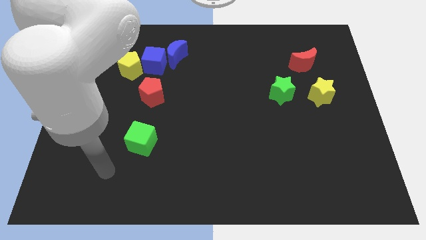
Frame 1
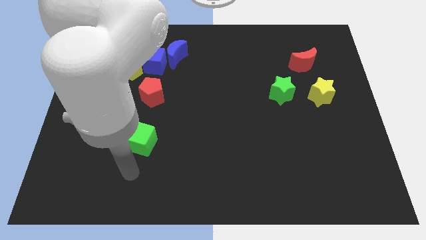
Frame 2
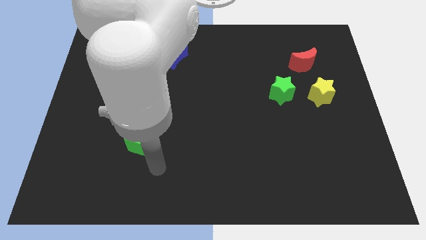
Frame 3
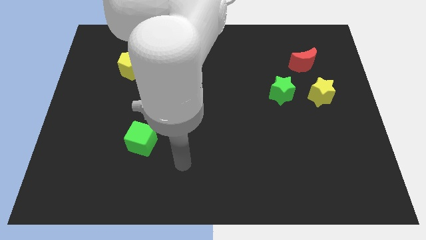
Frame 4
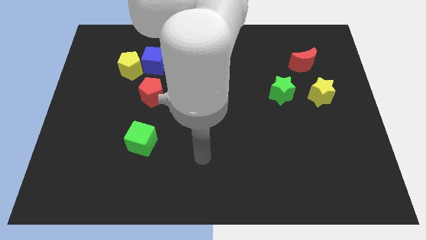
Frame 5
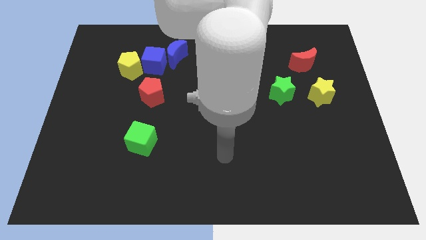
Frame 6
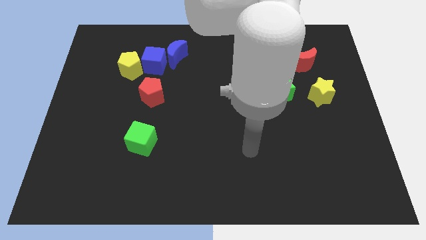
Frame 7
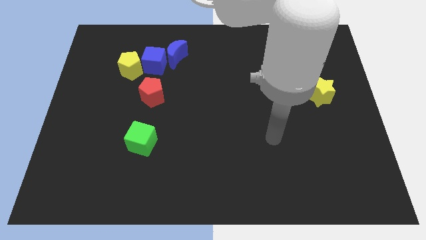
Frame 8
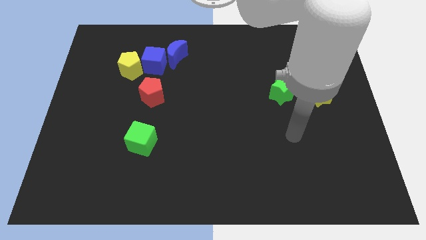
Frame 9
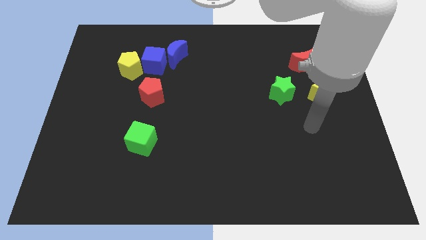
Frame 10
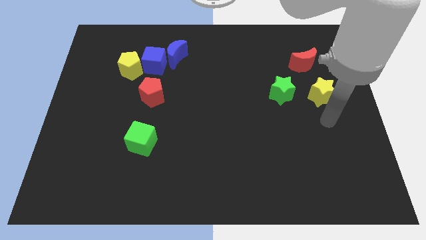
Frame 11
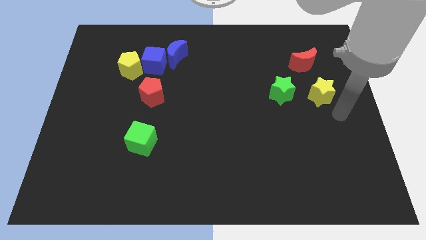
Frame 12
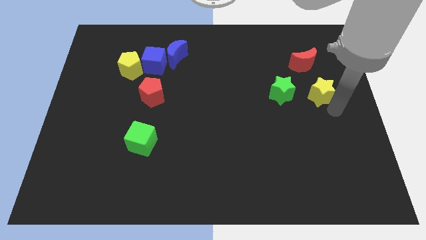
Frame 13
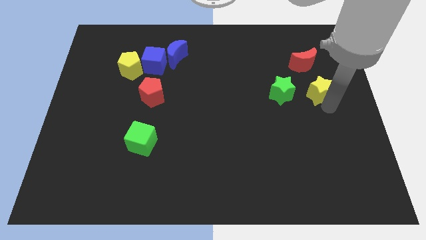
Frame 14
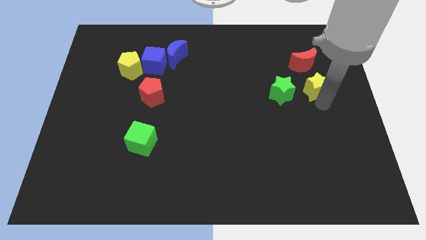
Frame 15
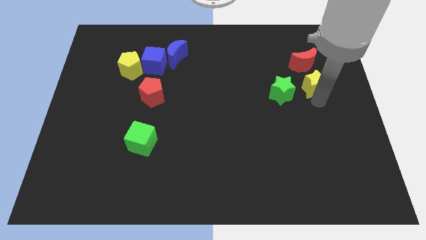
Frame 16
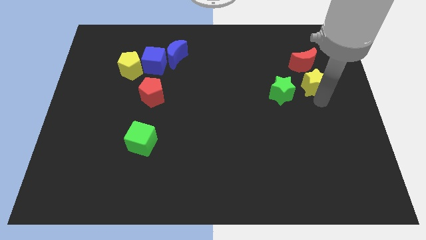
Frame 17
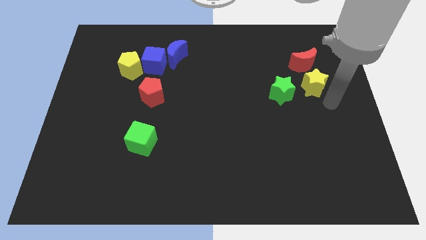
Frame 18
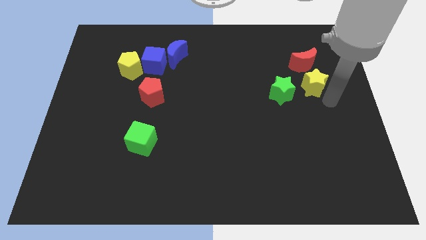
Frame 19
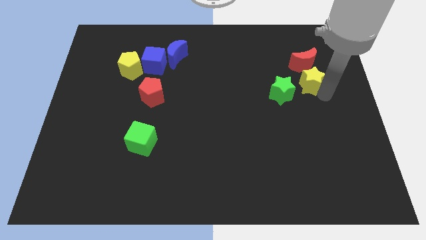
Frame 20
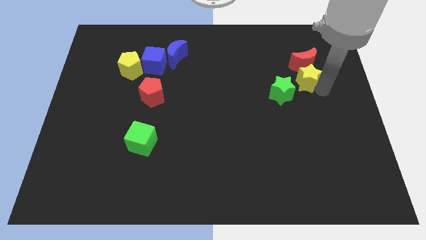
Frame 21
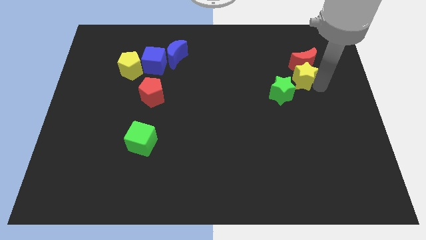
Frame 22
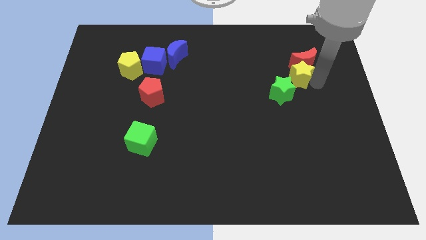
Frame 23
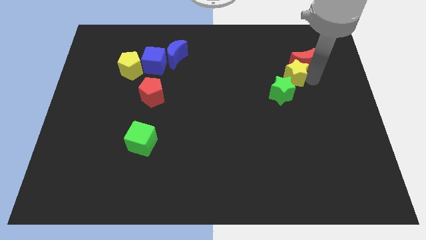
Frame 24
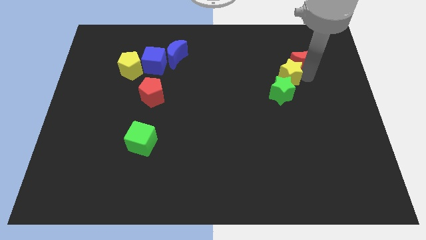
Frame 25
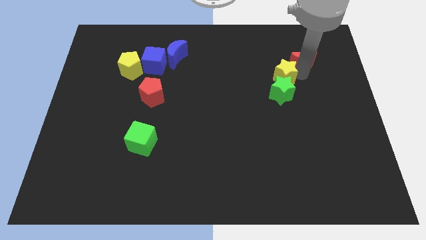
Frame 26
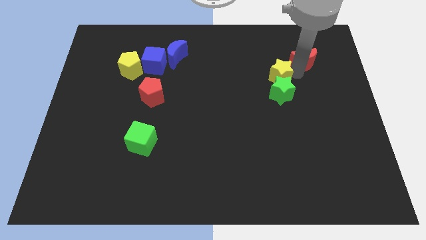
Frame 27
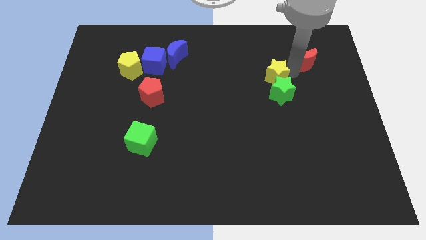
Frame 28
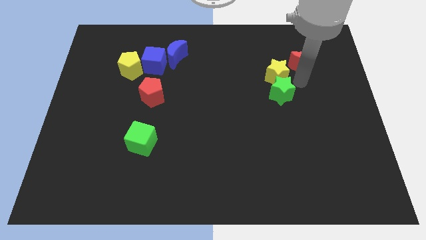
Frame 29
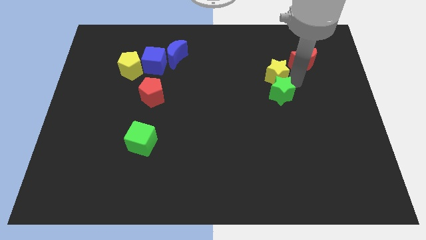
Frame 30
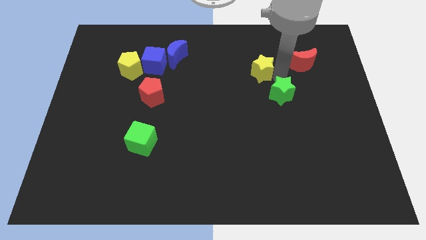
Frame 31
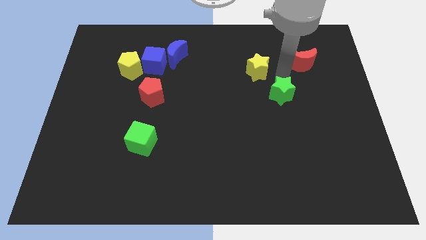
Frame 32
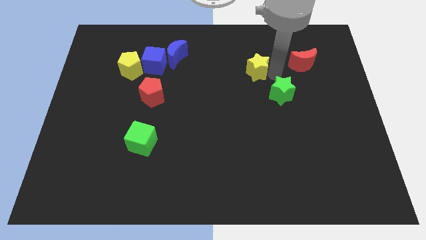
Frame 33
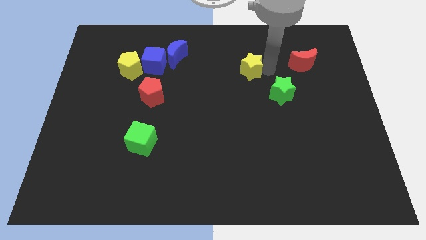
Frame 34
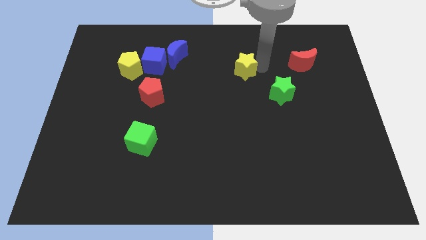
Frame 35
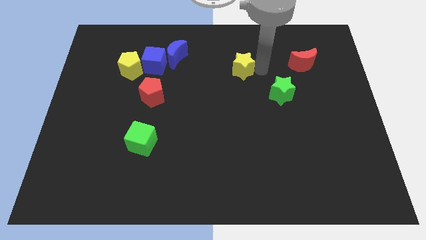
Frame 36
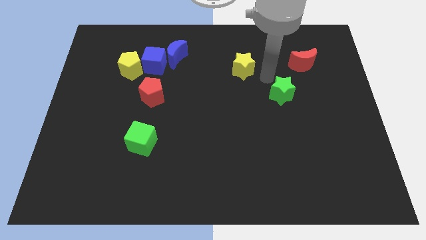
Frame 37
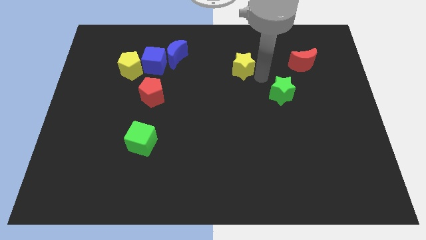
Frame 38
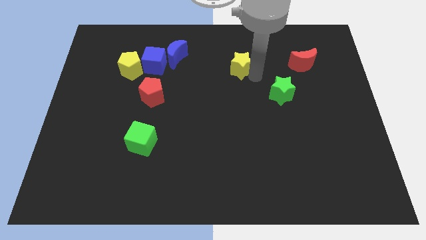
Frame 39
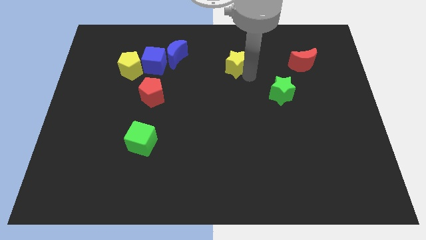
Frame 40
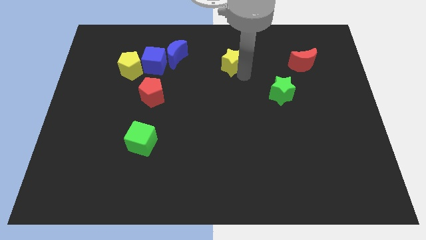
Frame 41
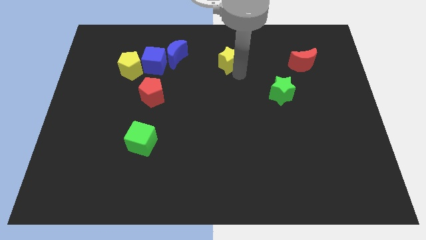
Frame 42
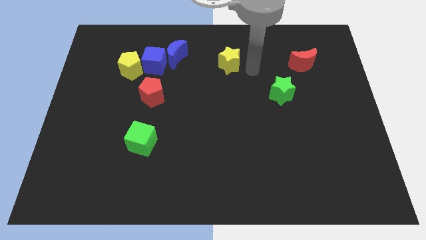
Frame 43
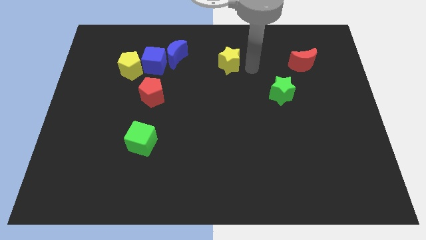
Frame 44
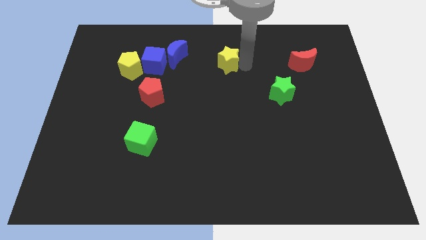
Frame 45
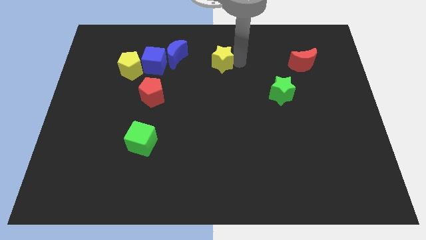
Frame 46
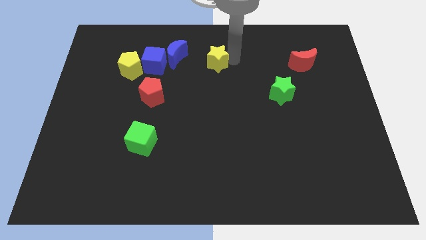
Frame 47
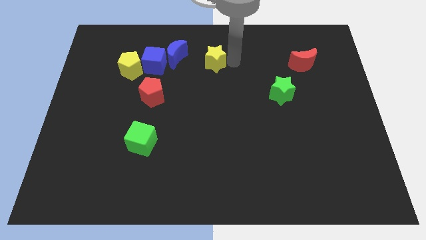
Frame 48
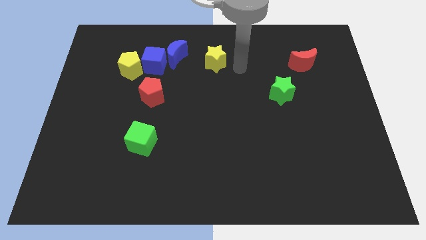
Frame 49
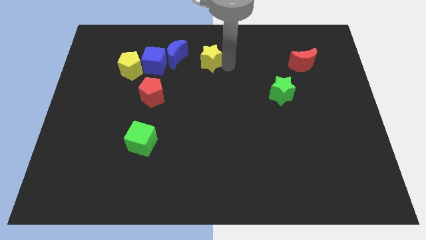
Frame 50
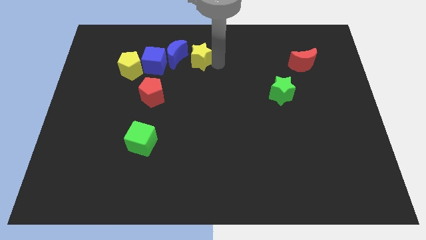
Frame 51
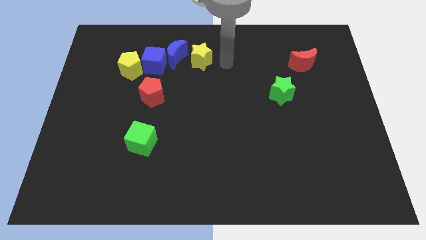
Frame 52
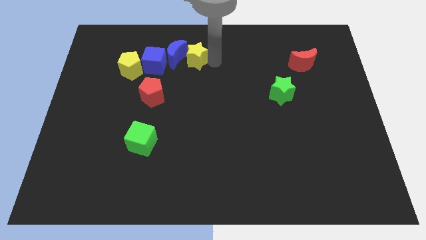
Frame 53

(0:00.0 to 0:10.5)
move the yellow star towards the blue moon

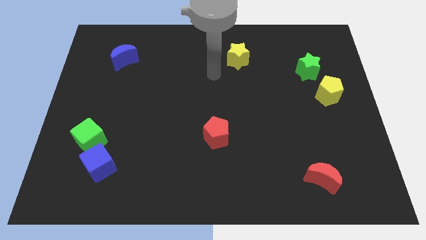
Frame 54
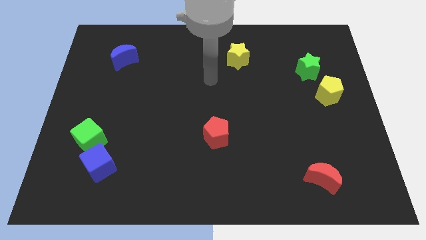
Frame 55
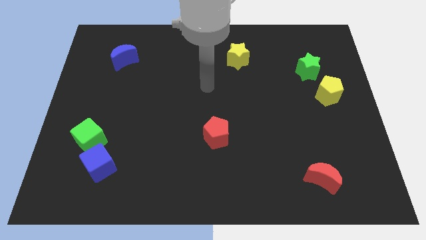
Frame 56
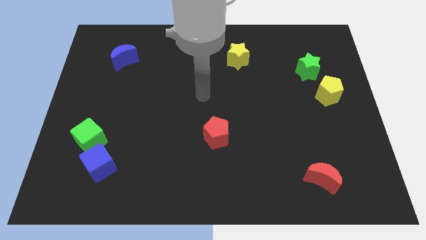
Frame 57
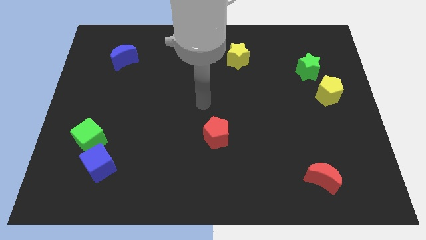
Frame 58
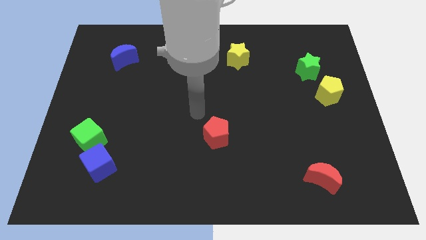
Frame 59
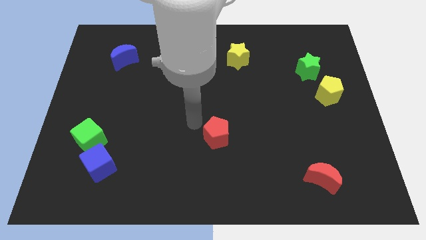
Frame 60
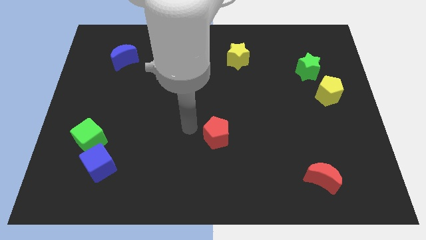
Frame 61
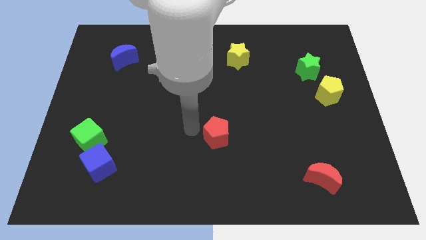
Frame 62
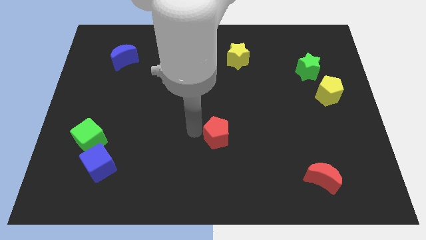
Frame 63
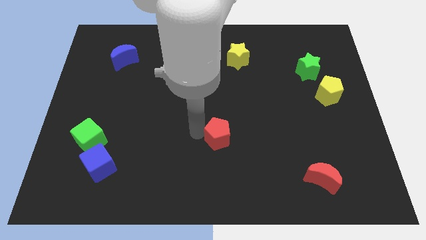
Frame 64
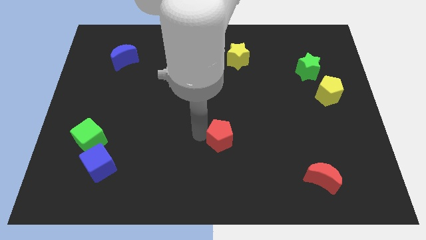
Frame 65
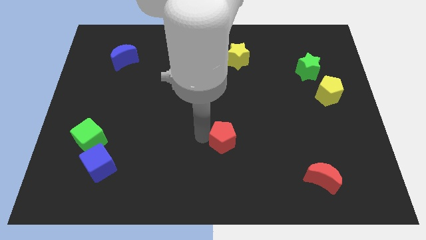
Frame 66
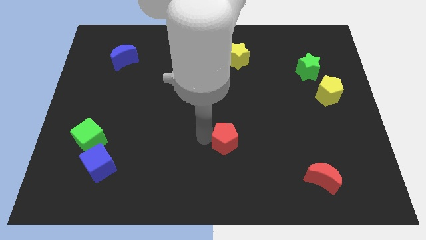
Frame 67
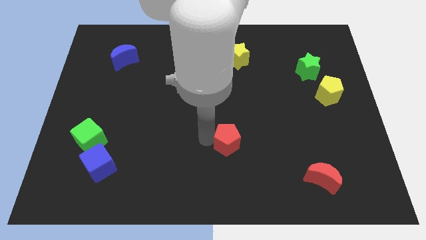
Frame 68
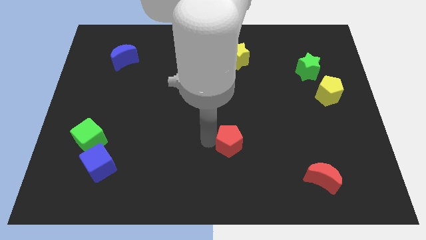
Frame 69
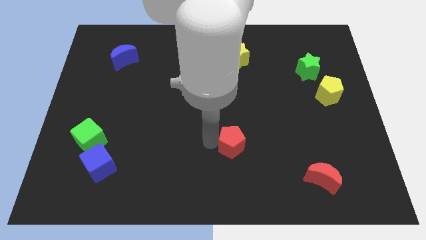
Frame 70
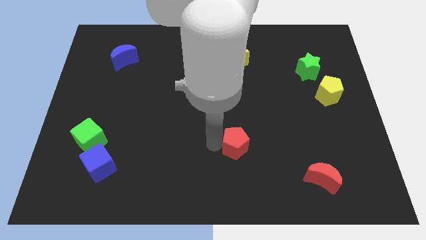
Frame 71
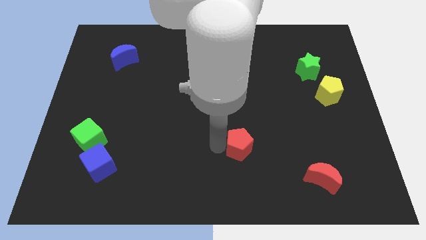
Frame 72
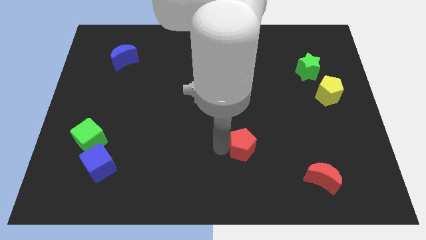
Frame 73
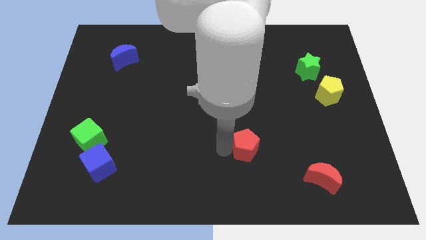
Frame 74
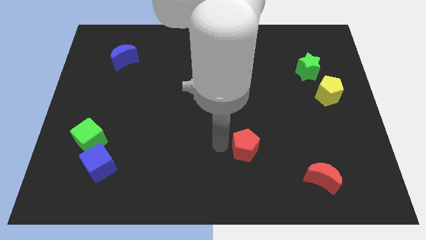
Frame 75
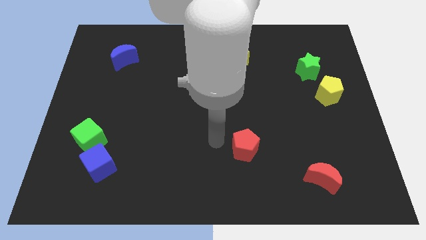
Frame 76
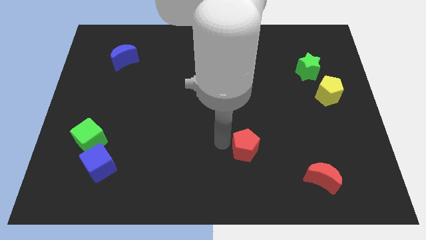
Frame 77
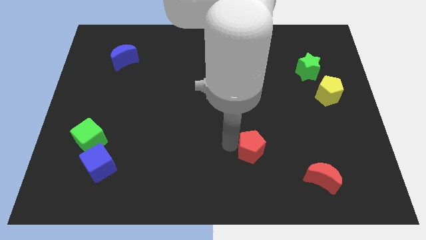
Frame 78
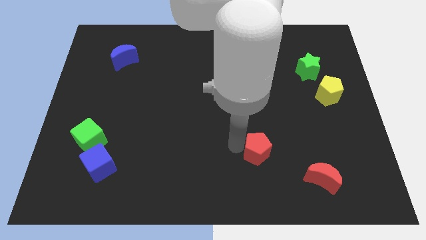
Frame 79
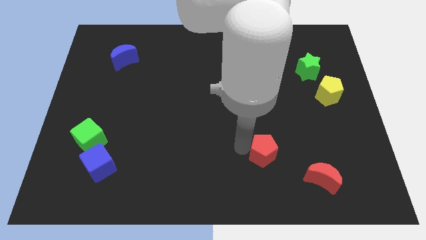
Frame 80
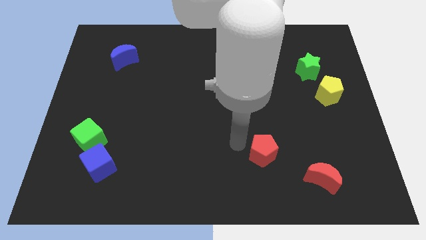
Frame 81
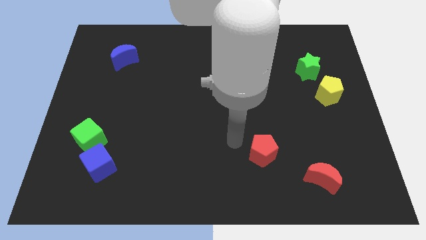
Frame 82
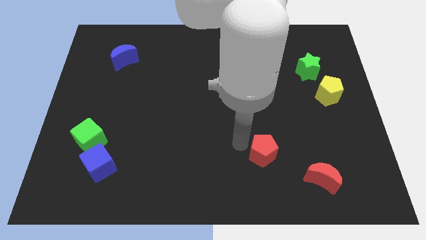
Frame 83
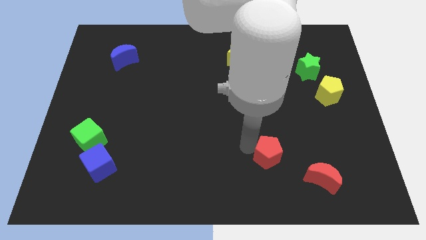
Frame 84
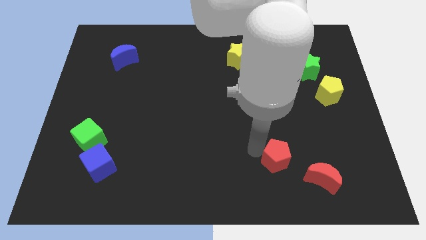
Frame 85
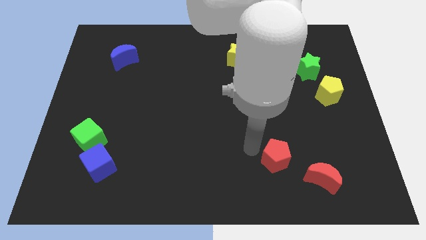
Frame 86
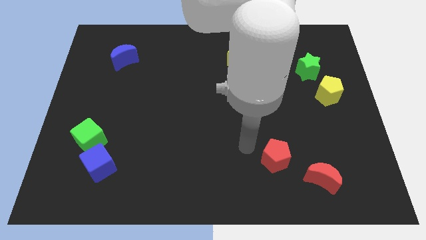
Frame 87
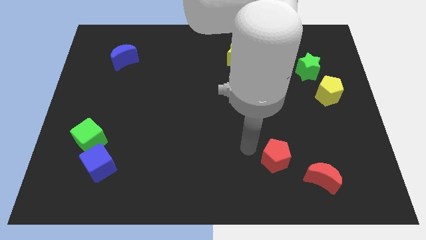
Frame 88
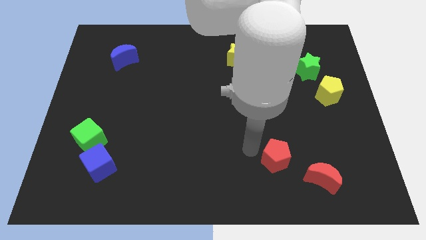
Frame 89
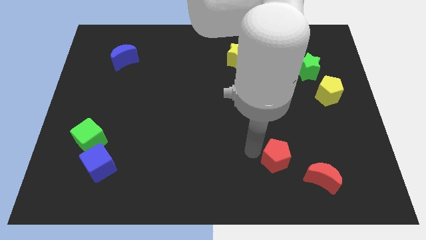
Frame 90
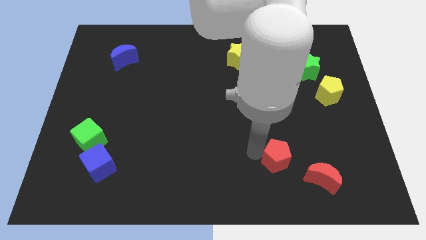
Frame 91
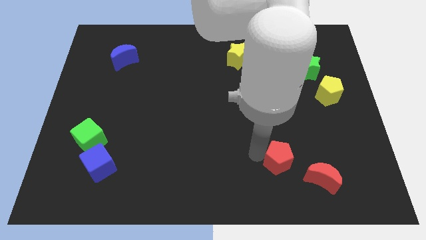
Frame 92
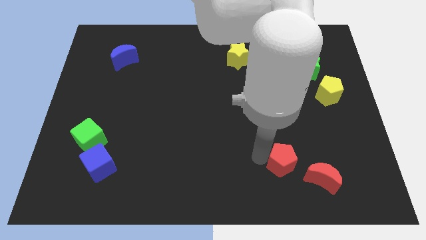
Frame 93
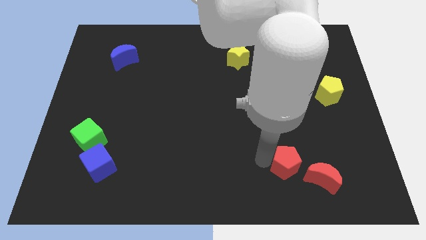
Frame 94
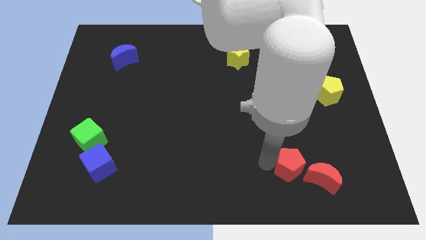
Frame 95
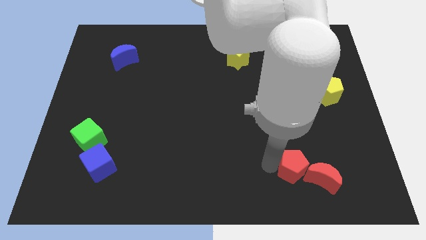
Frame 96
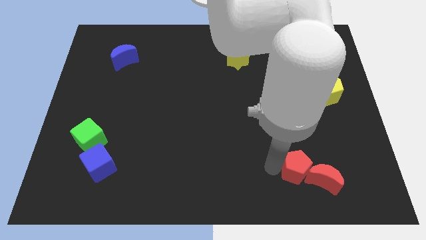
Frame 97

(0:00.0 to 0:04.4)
slide the red pentagon to the red moon
